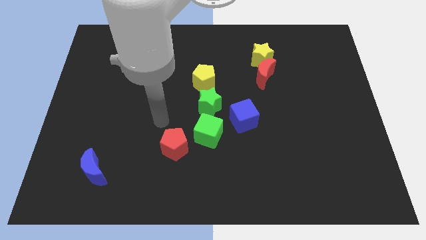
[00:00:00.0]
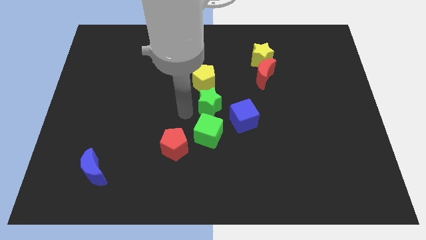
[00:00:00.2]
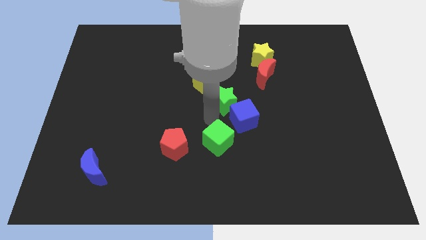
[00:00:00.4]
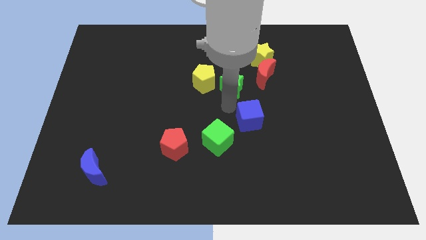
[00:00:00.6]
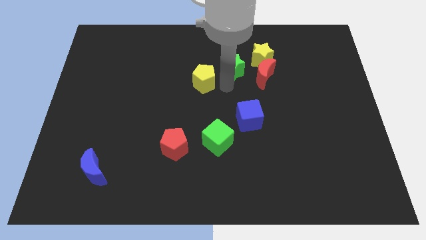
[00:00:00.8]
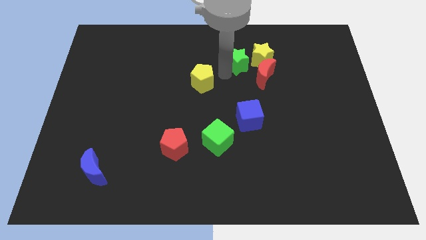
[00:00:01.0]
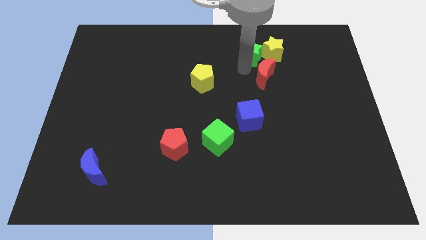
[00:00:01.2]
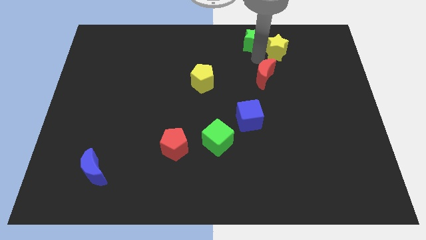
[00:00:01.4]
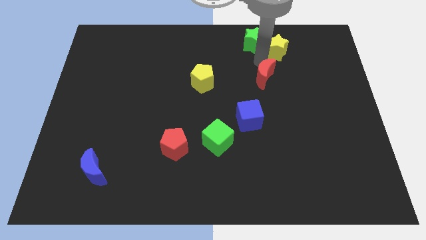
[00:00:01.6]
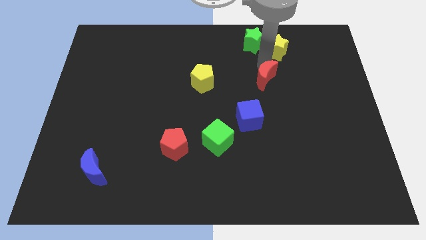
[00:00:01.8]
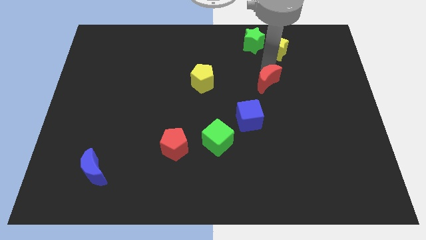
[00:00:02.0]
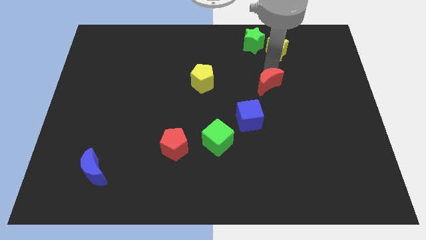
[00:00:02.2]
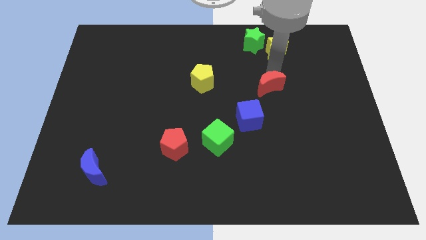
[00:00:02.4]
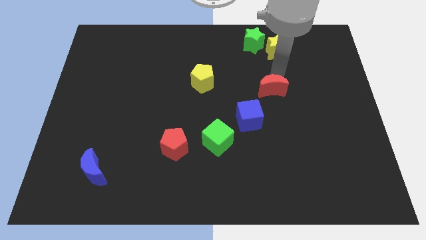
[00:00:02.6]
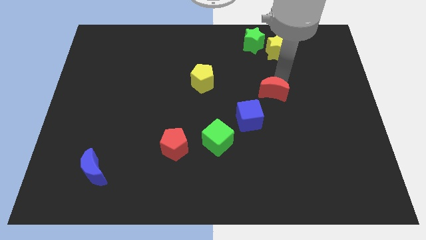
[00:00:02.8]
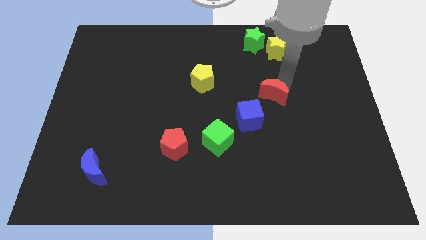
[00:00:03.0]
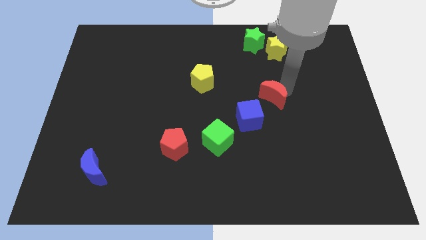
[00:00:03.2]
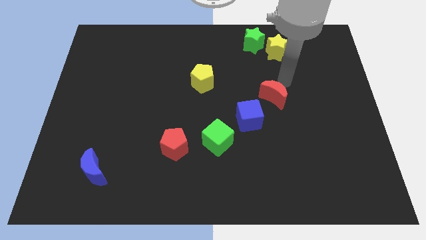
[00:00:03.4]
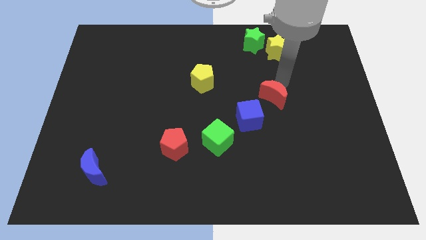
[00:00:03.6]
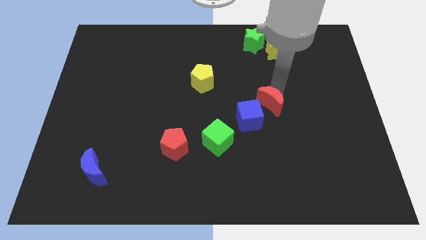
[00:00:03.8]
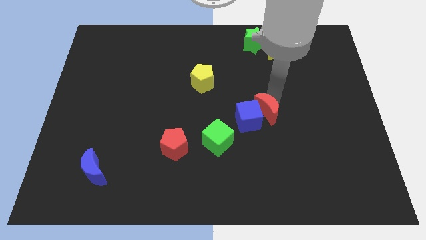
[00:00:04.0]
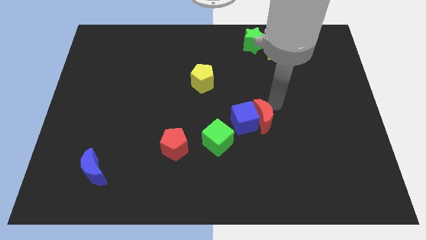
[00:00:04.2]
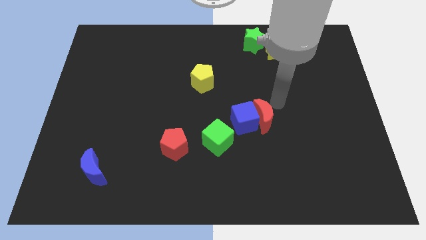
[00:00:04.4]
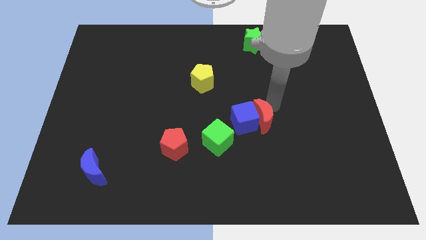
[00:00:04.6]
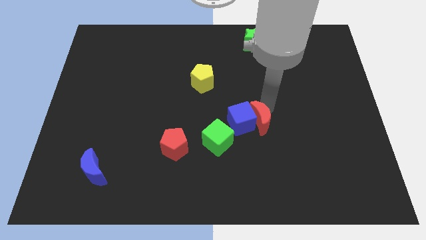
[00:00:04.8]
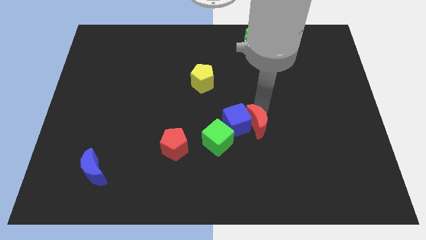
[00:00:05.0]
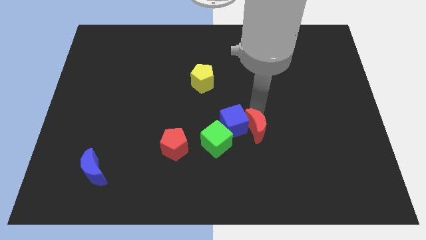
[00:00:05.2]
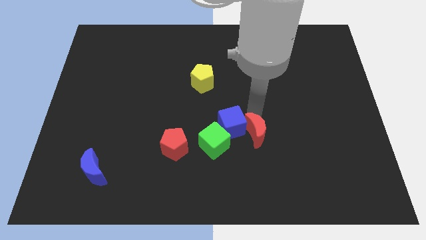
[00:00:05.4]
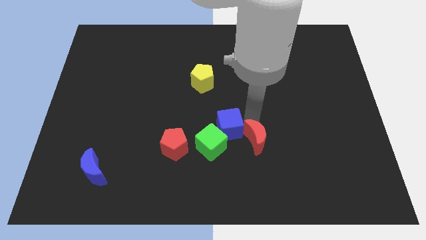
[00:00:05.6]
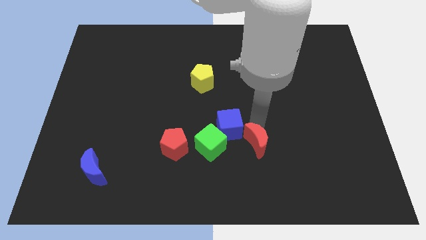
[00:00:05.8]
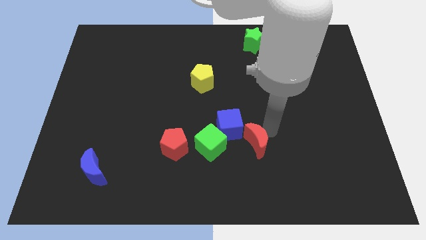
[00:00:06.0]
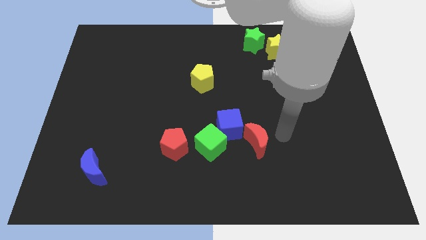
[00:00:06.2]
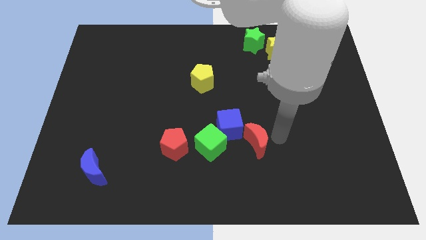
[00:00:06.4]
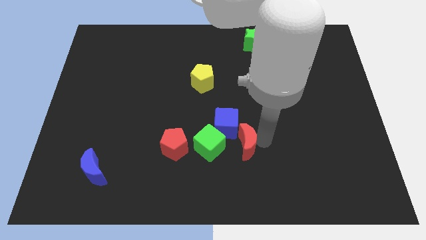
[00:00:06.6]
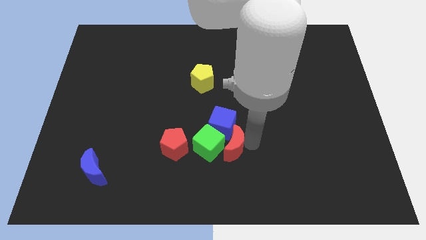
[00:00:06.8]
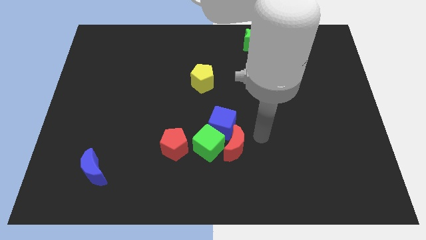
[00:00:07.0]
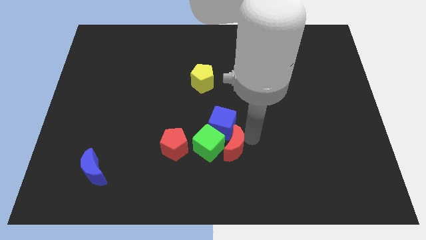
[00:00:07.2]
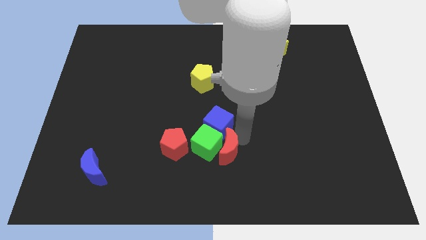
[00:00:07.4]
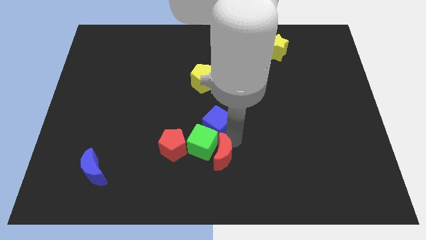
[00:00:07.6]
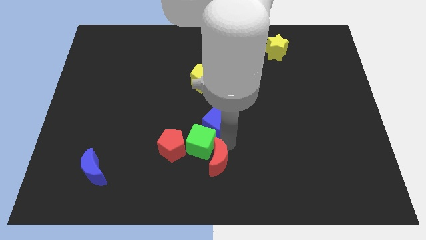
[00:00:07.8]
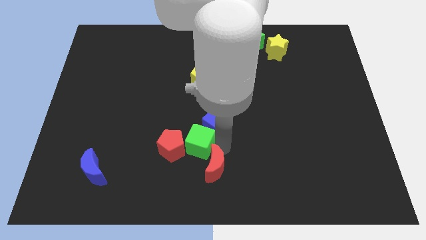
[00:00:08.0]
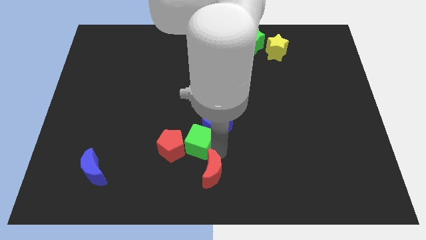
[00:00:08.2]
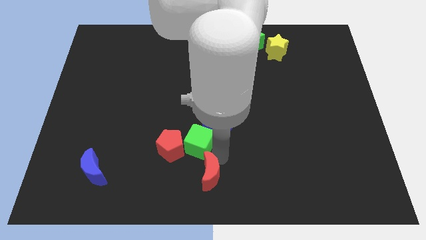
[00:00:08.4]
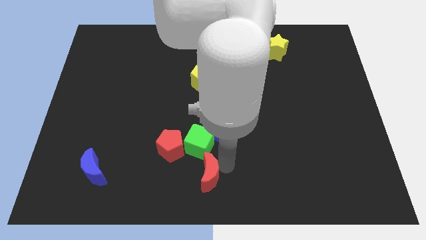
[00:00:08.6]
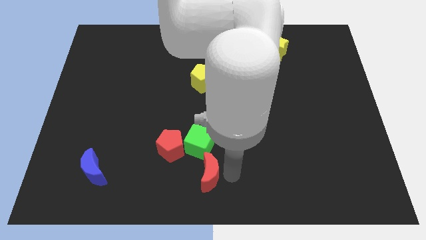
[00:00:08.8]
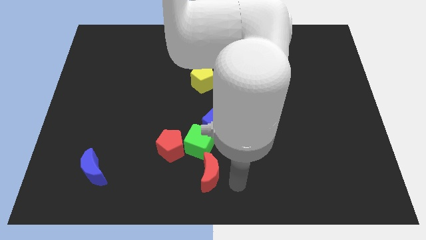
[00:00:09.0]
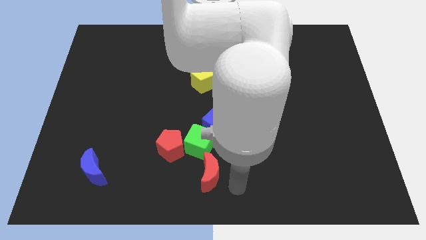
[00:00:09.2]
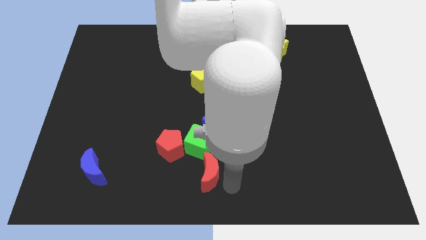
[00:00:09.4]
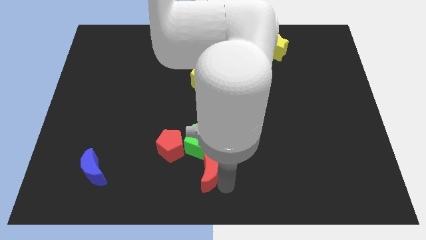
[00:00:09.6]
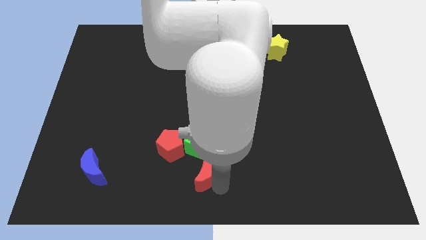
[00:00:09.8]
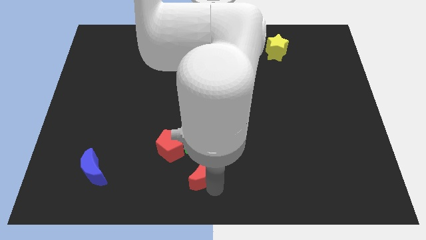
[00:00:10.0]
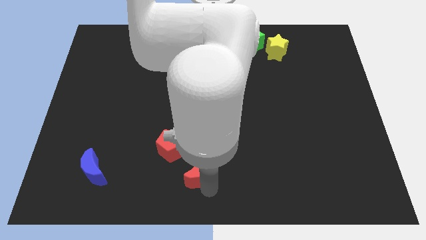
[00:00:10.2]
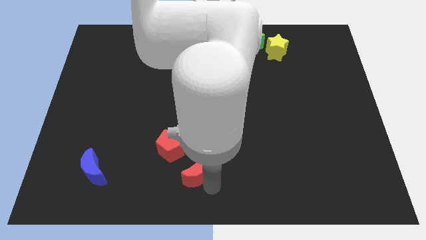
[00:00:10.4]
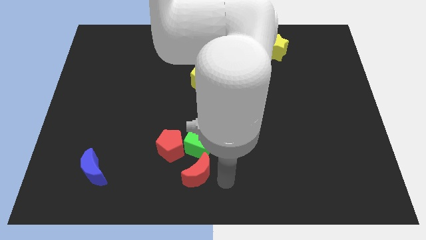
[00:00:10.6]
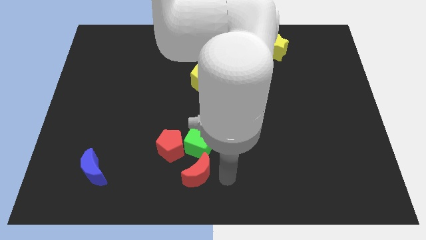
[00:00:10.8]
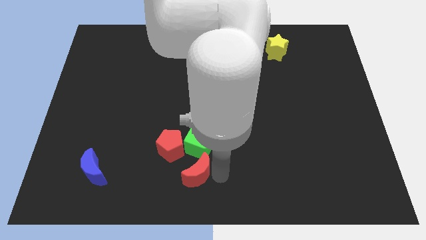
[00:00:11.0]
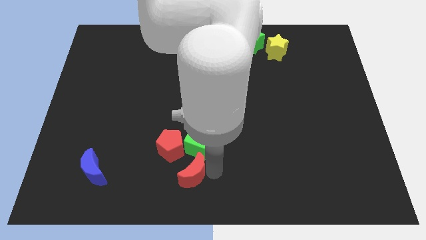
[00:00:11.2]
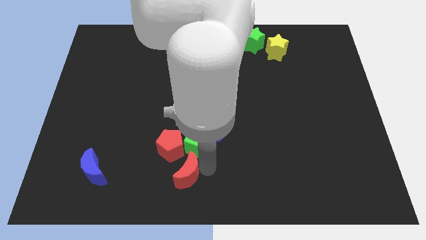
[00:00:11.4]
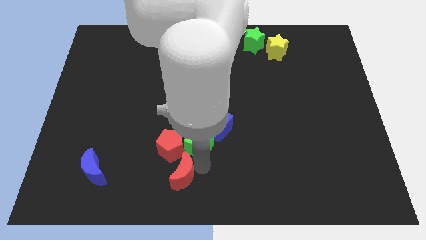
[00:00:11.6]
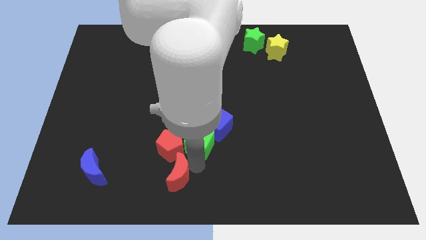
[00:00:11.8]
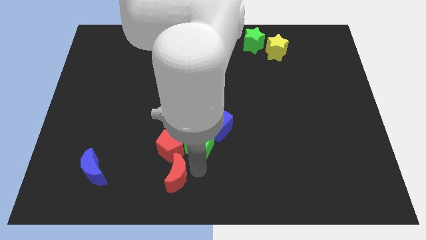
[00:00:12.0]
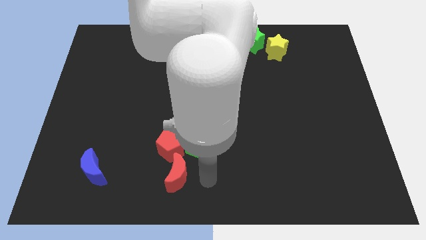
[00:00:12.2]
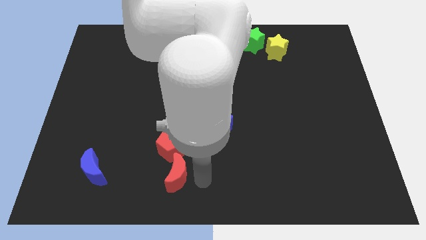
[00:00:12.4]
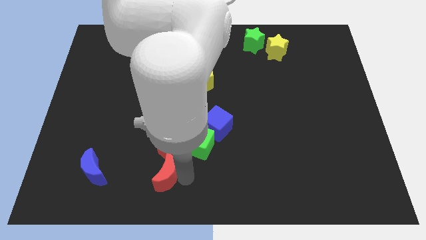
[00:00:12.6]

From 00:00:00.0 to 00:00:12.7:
push the red moon to the bottom left side of the red pentagon
